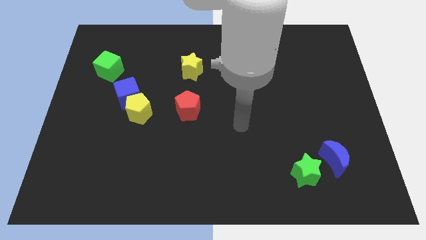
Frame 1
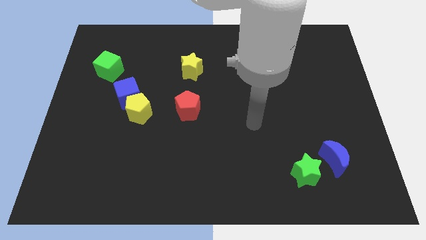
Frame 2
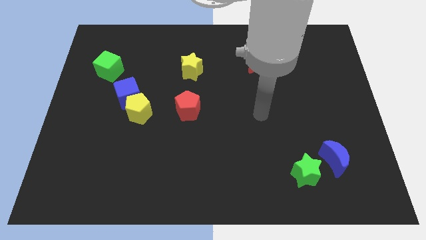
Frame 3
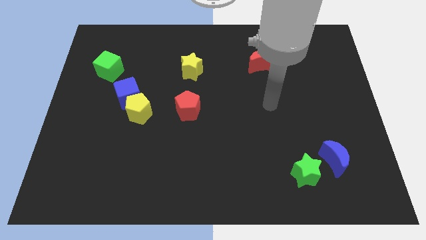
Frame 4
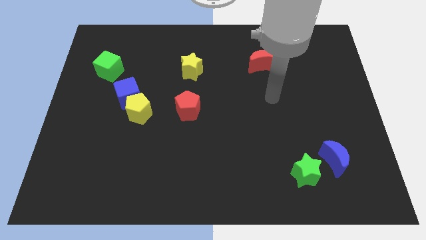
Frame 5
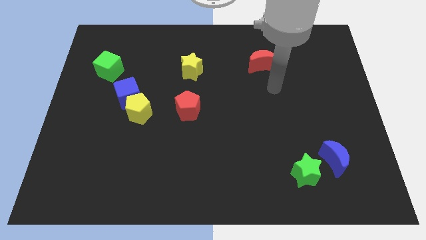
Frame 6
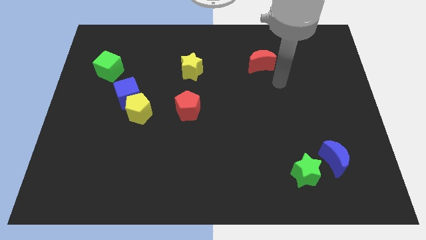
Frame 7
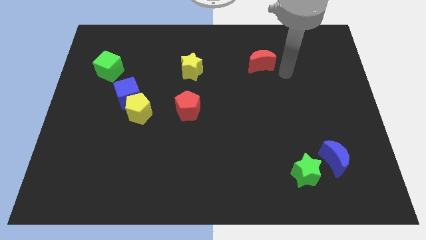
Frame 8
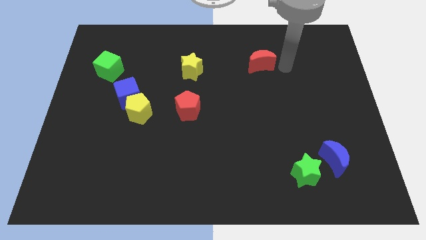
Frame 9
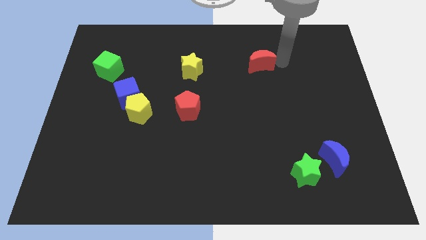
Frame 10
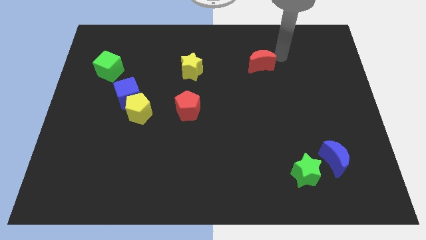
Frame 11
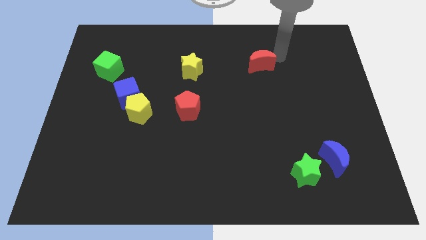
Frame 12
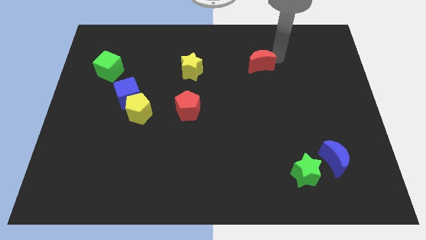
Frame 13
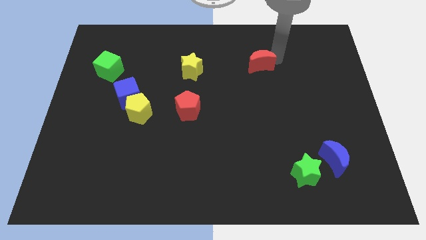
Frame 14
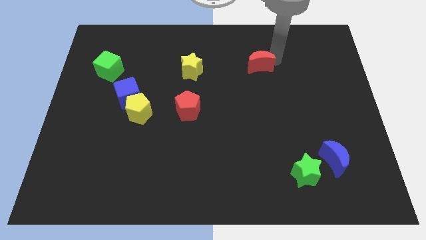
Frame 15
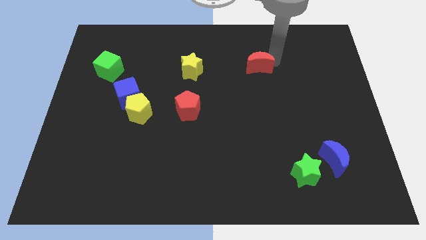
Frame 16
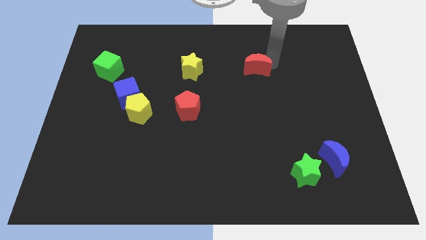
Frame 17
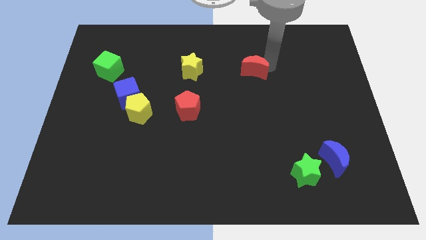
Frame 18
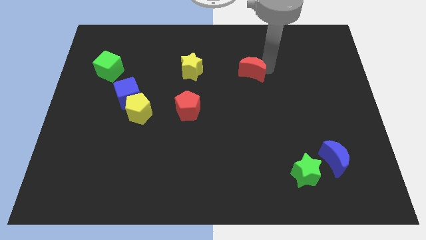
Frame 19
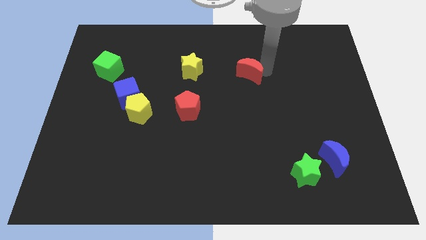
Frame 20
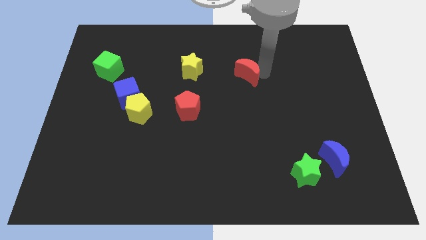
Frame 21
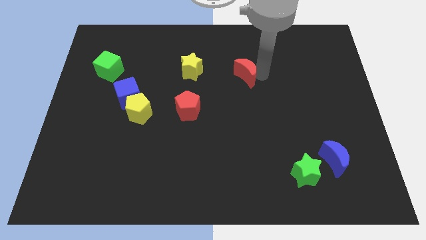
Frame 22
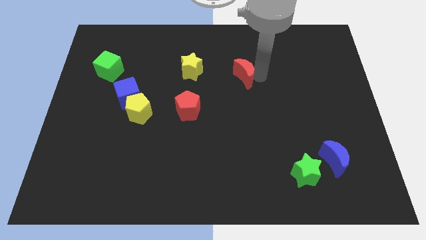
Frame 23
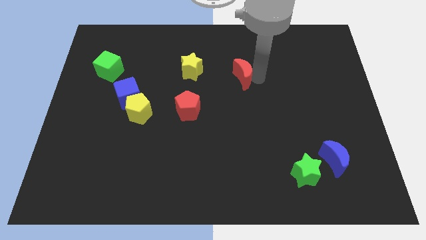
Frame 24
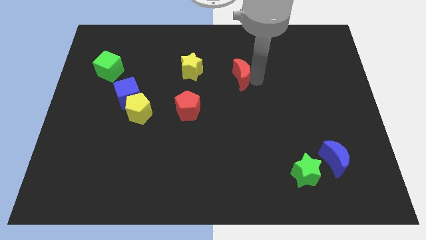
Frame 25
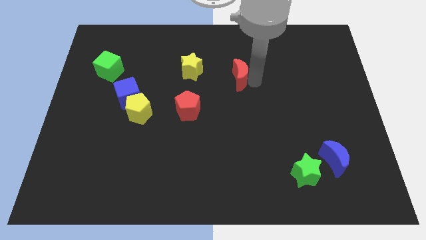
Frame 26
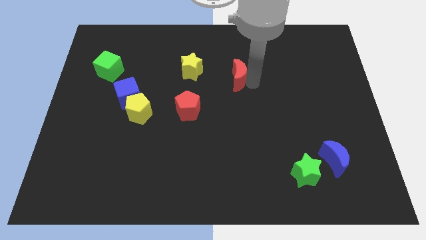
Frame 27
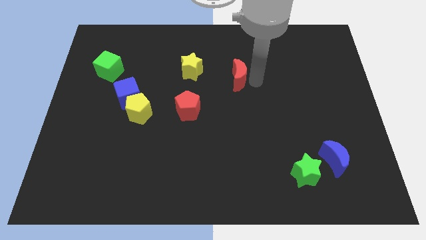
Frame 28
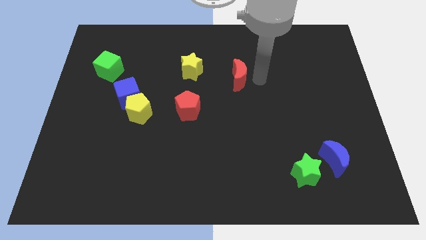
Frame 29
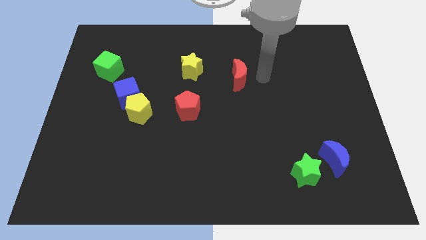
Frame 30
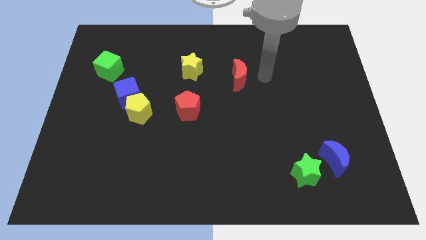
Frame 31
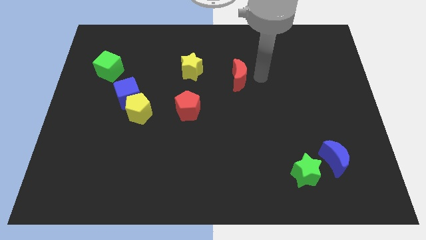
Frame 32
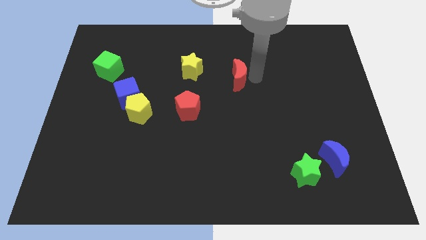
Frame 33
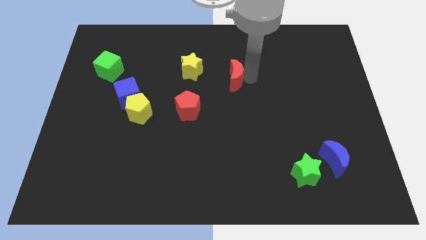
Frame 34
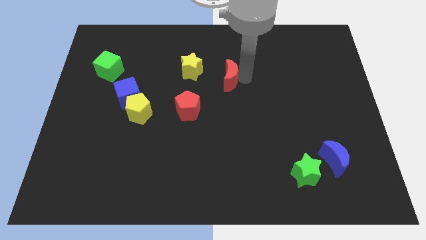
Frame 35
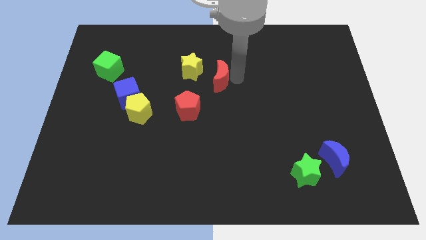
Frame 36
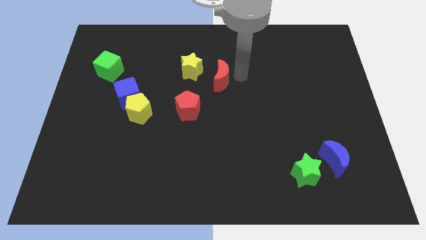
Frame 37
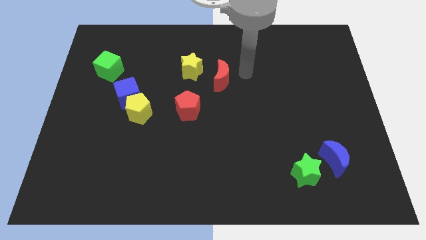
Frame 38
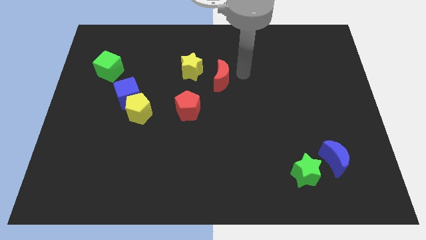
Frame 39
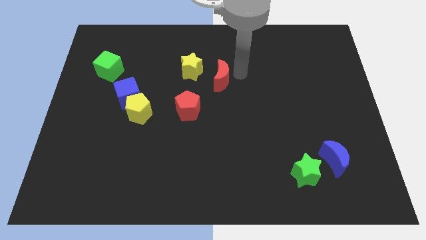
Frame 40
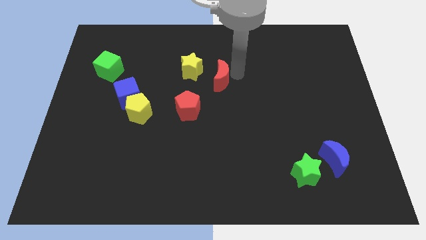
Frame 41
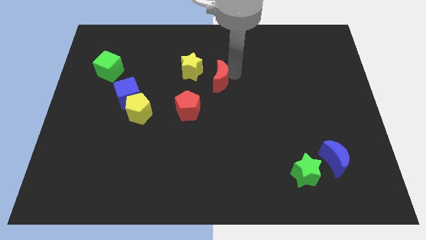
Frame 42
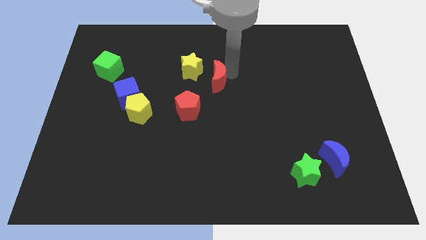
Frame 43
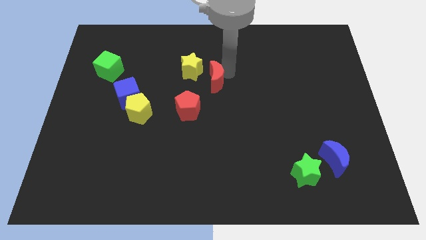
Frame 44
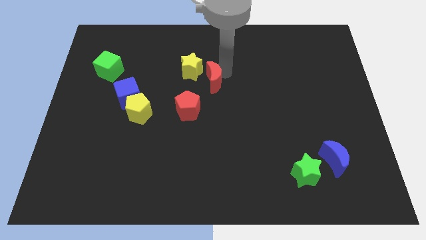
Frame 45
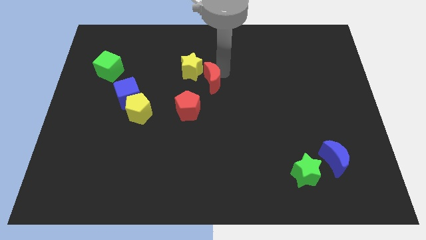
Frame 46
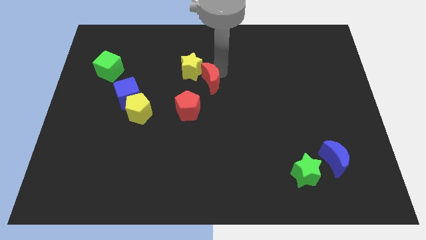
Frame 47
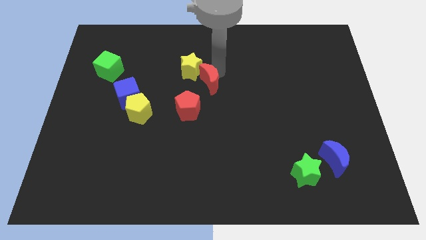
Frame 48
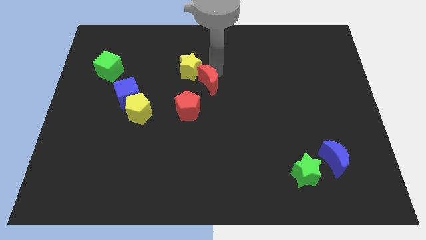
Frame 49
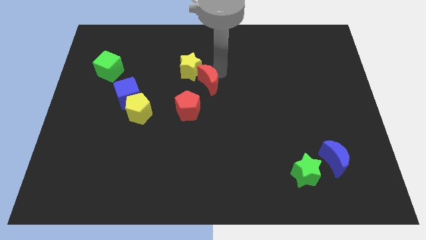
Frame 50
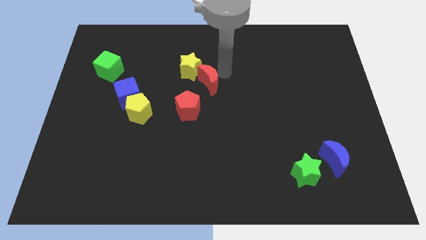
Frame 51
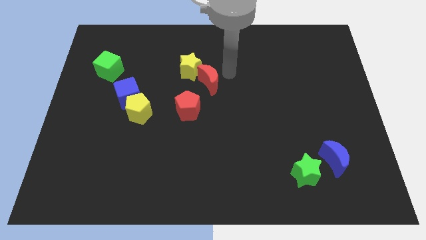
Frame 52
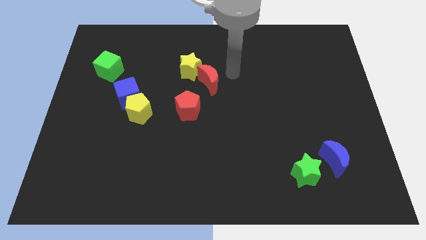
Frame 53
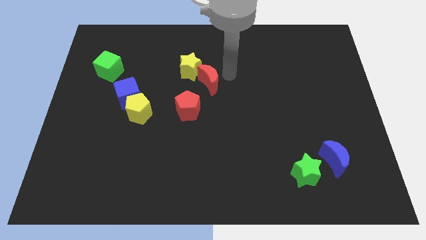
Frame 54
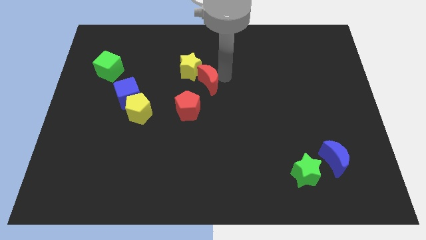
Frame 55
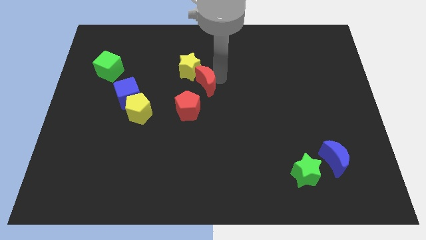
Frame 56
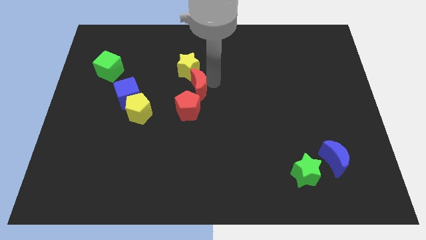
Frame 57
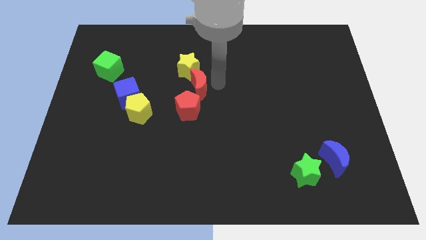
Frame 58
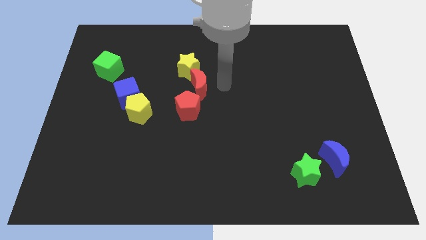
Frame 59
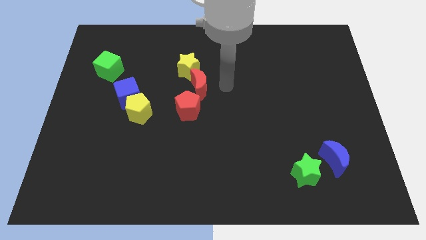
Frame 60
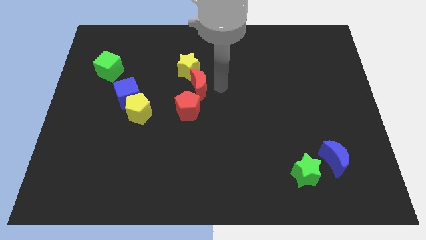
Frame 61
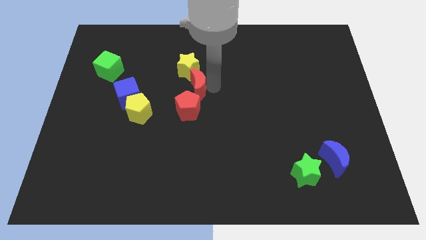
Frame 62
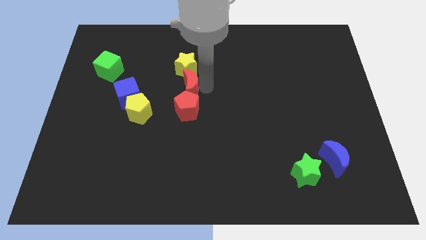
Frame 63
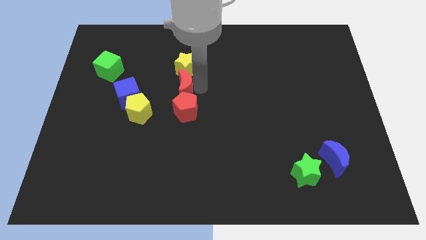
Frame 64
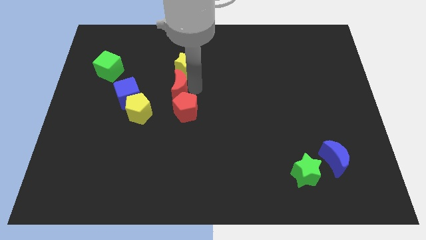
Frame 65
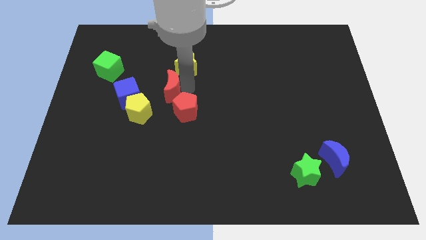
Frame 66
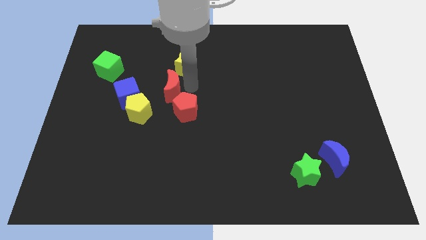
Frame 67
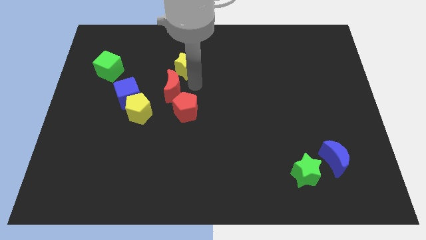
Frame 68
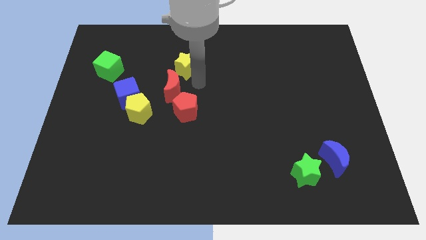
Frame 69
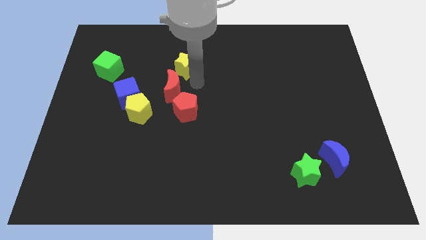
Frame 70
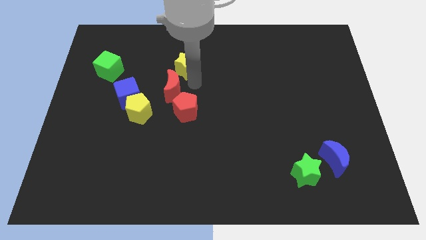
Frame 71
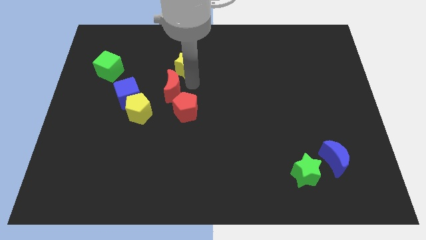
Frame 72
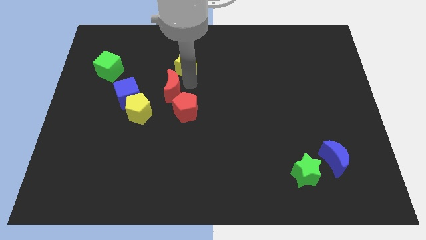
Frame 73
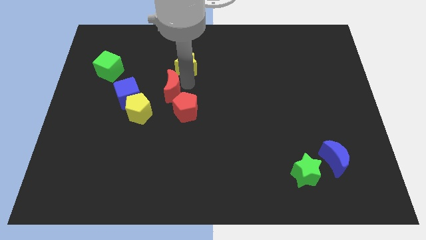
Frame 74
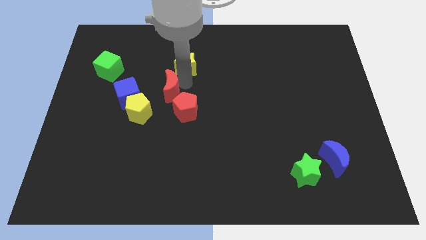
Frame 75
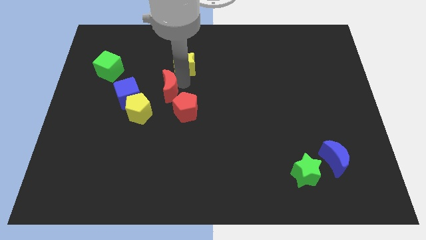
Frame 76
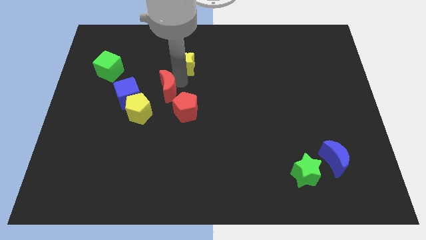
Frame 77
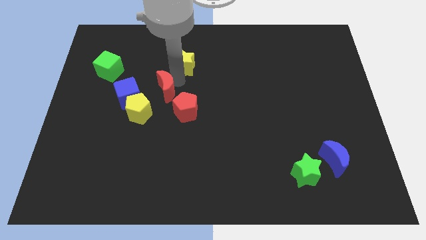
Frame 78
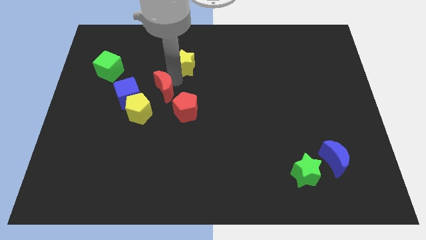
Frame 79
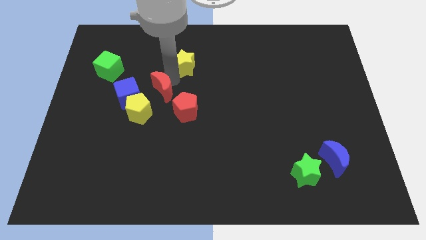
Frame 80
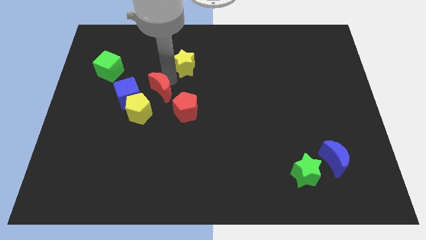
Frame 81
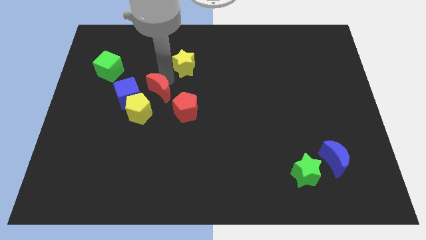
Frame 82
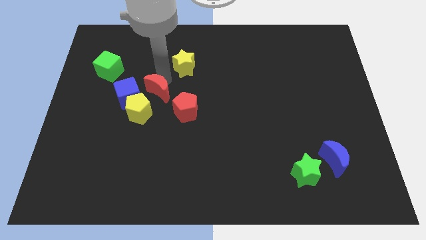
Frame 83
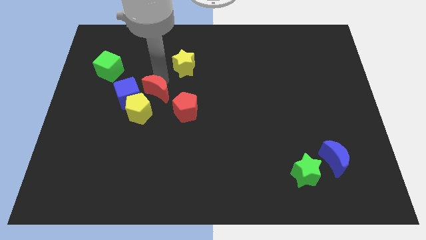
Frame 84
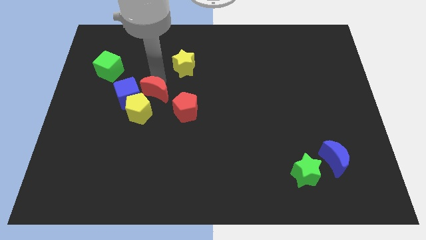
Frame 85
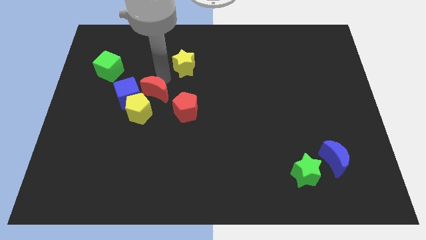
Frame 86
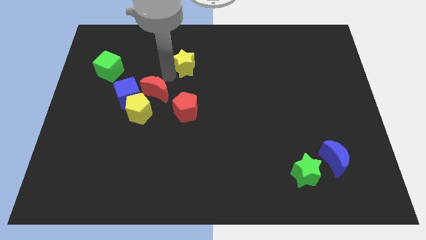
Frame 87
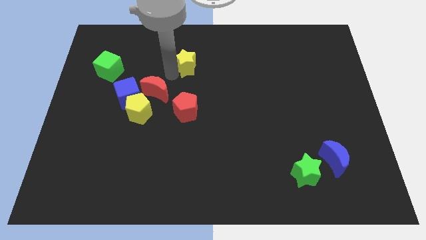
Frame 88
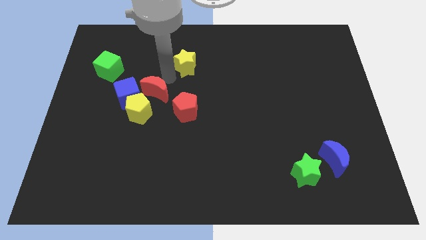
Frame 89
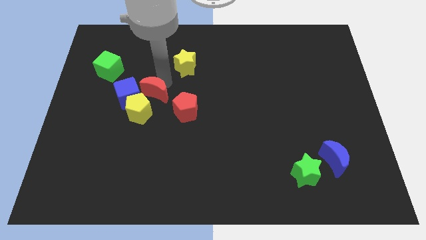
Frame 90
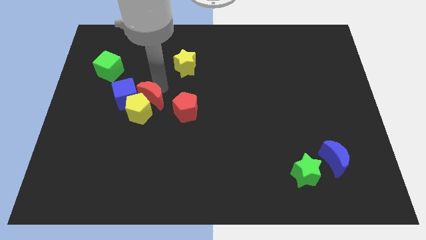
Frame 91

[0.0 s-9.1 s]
put the red moon close to the yellow pentagon
